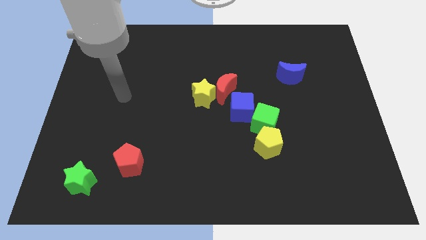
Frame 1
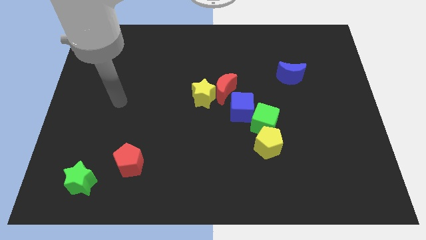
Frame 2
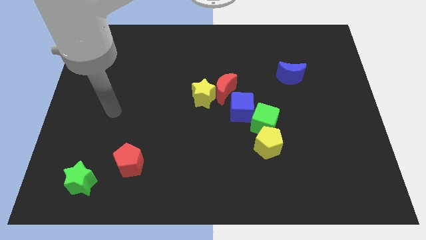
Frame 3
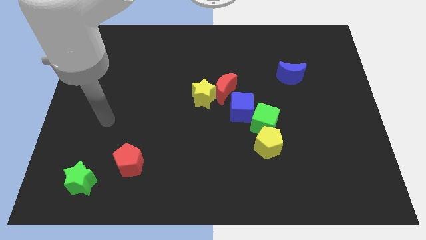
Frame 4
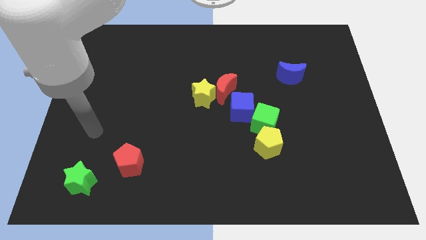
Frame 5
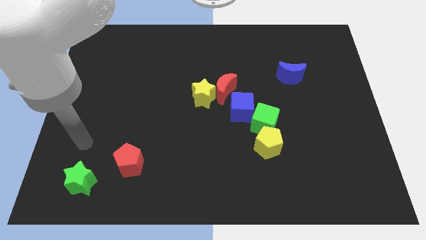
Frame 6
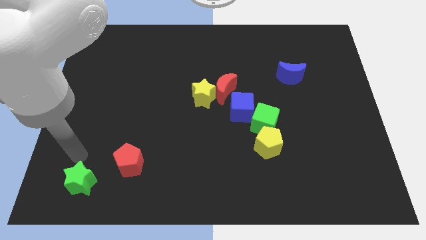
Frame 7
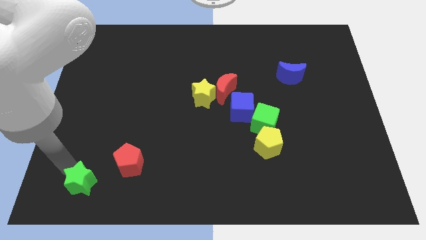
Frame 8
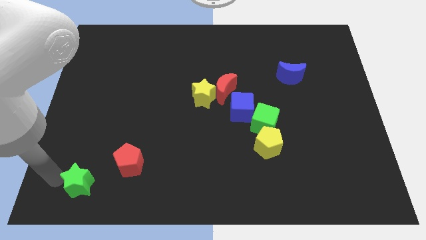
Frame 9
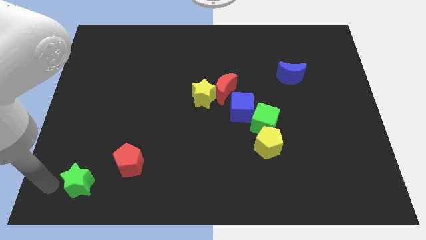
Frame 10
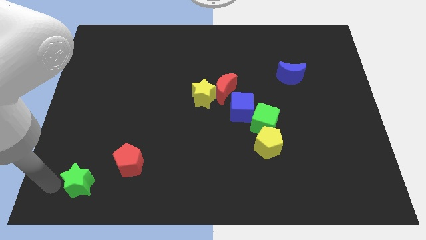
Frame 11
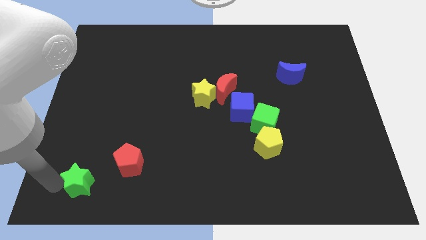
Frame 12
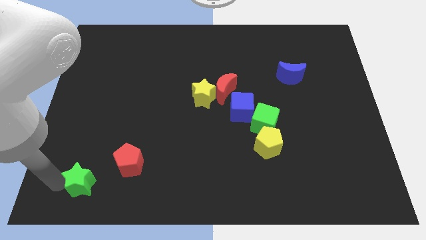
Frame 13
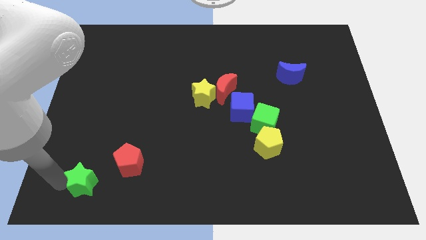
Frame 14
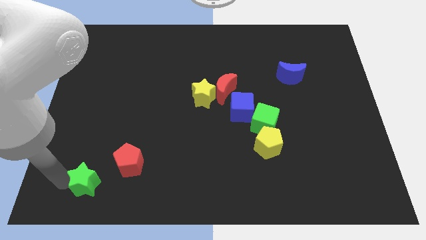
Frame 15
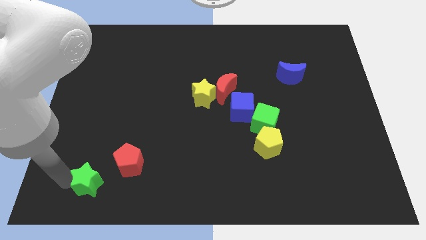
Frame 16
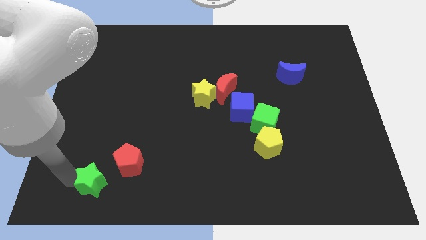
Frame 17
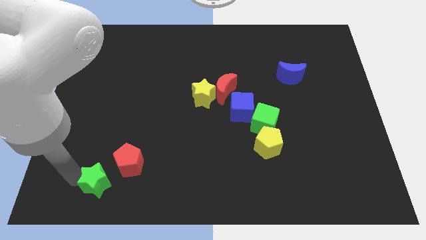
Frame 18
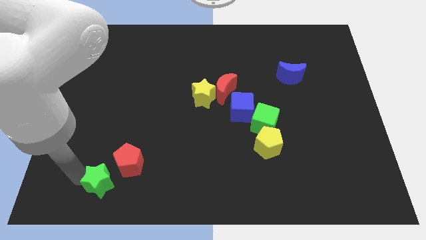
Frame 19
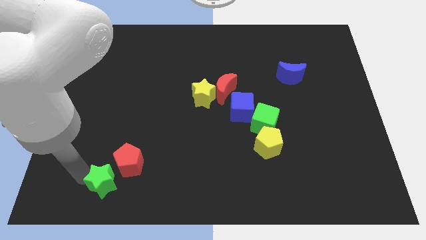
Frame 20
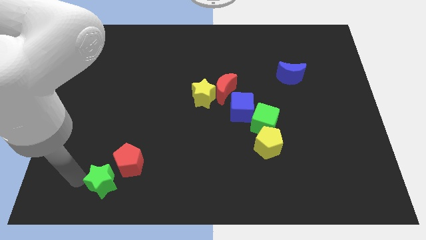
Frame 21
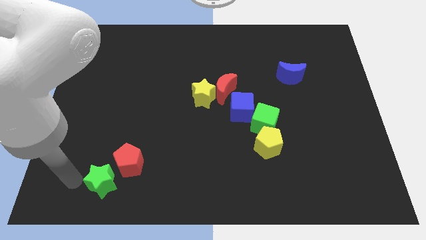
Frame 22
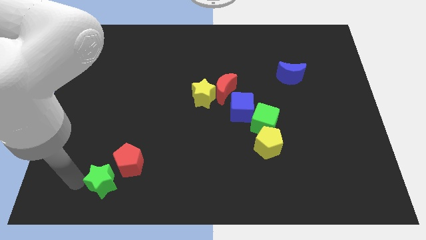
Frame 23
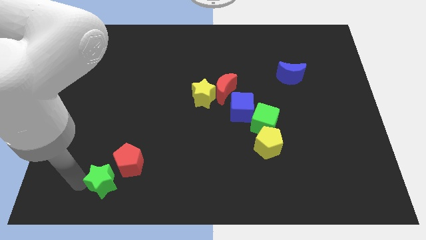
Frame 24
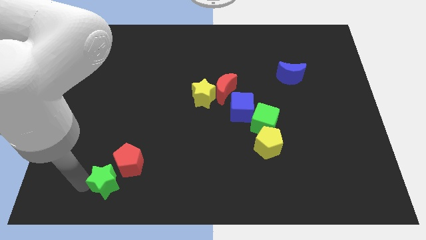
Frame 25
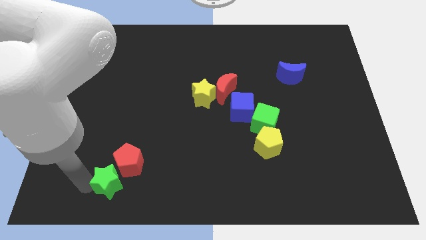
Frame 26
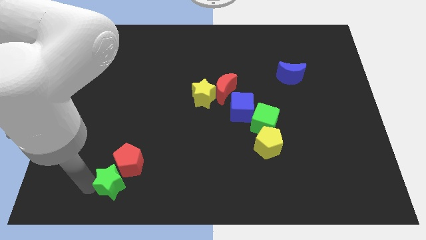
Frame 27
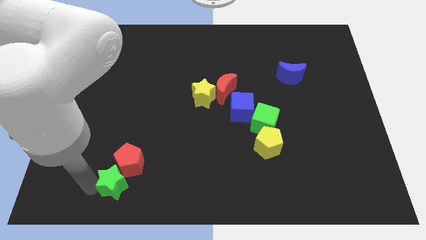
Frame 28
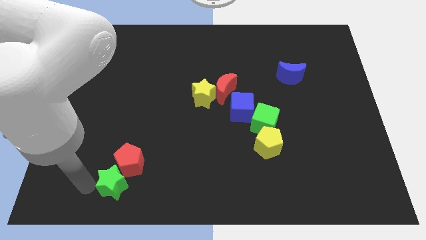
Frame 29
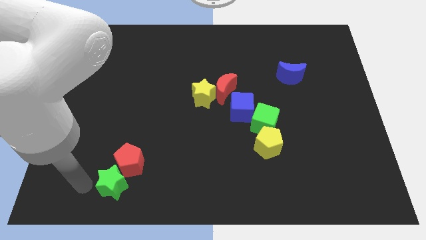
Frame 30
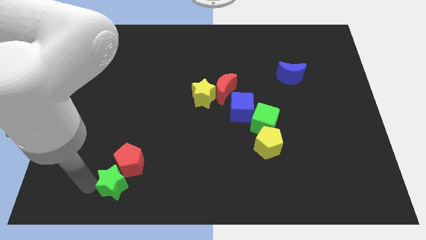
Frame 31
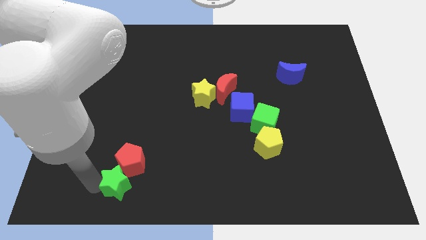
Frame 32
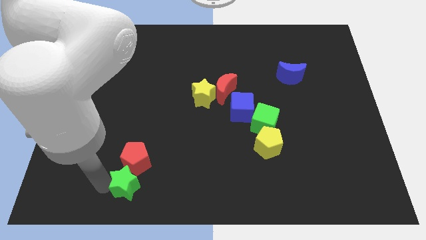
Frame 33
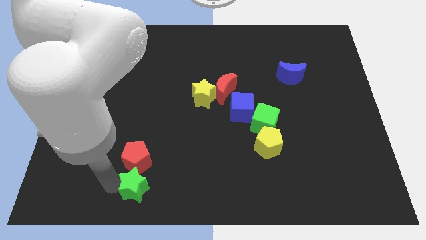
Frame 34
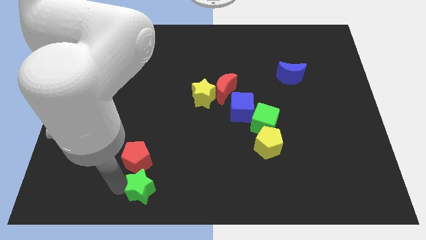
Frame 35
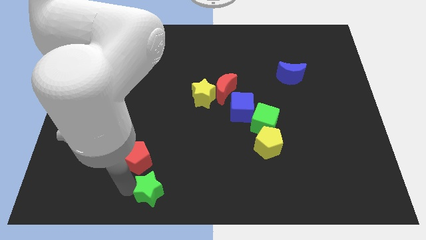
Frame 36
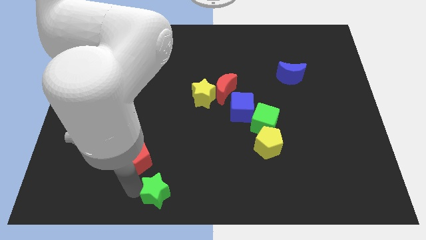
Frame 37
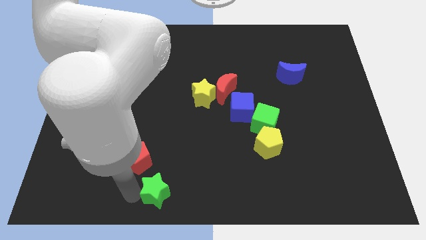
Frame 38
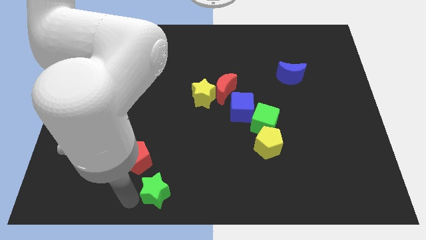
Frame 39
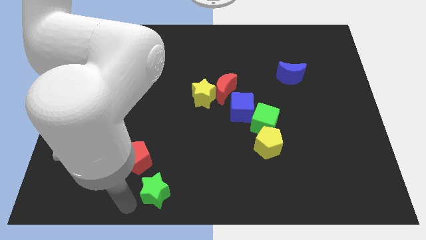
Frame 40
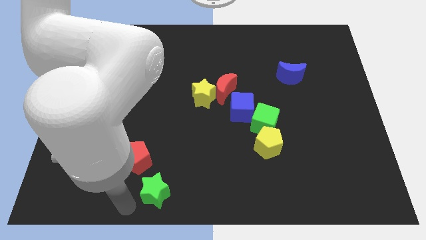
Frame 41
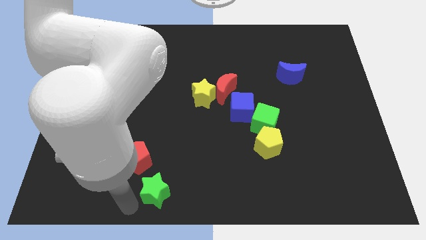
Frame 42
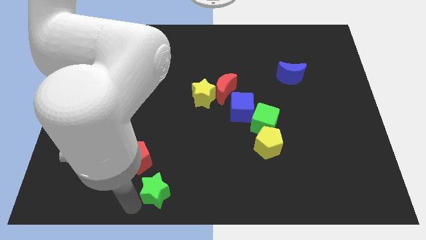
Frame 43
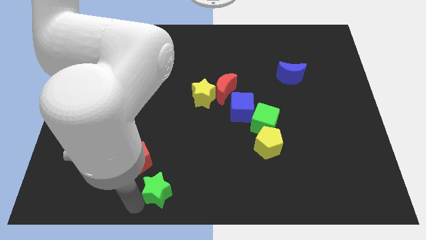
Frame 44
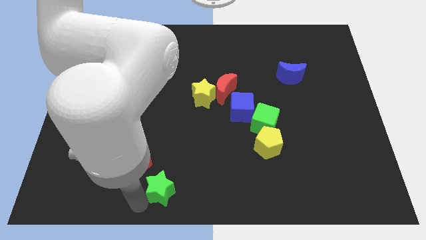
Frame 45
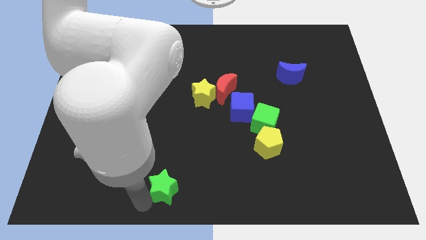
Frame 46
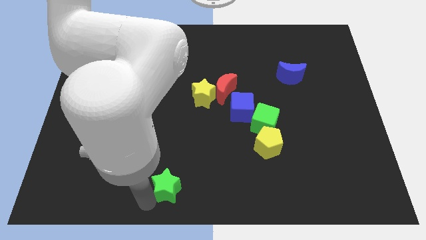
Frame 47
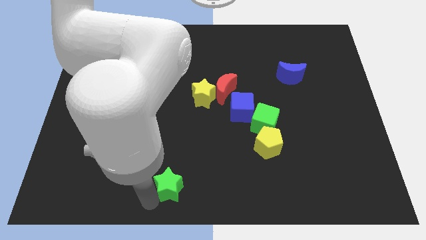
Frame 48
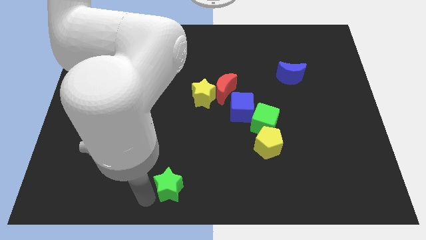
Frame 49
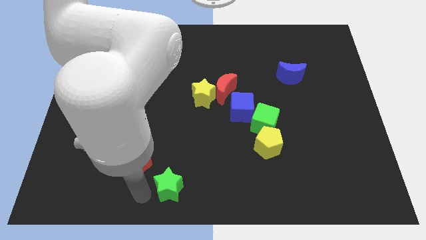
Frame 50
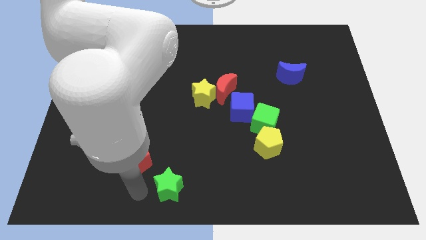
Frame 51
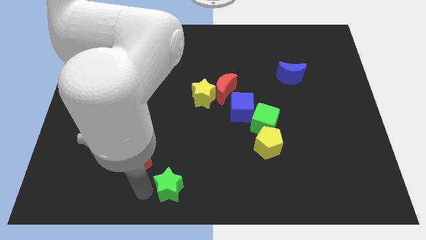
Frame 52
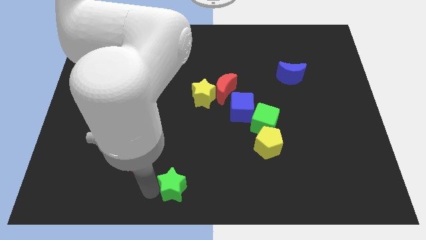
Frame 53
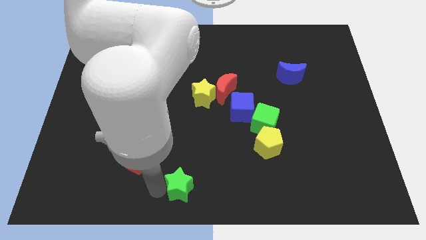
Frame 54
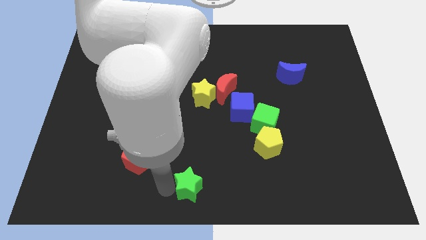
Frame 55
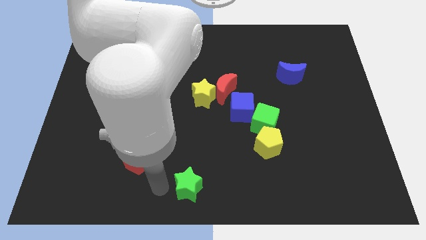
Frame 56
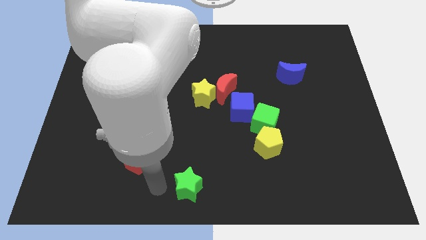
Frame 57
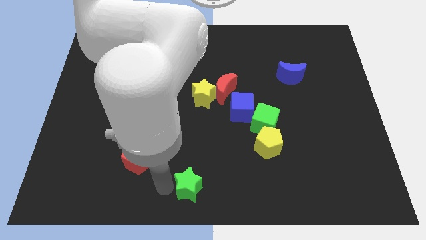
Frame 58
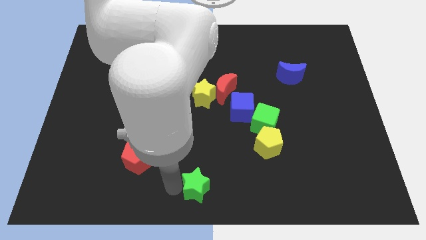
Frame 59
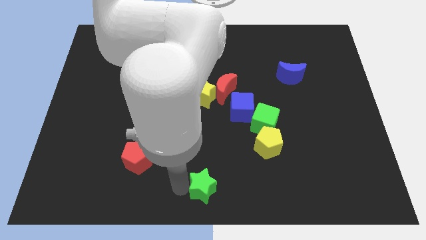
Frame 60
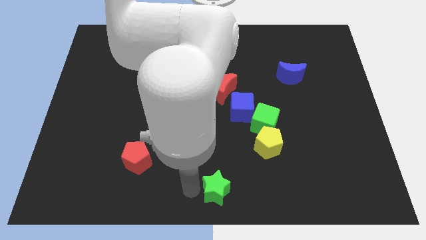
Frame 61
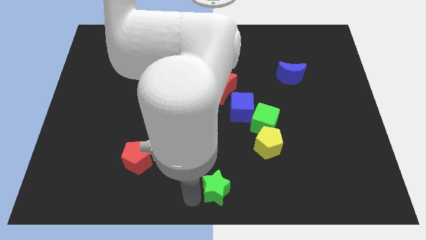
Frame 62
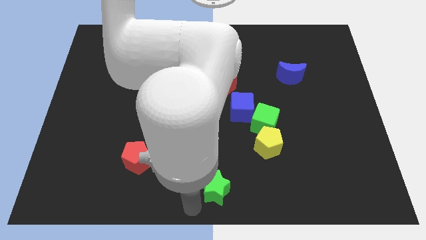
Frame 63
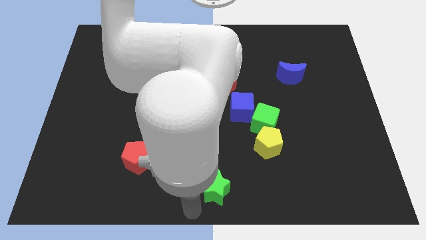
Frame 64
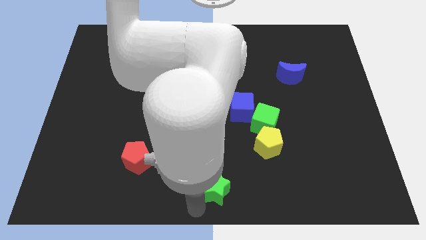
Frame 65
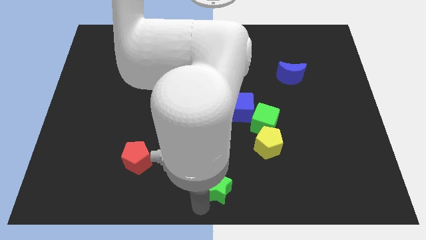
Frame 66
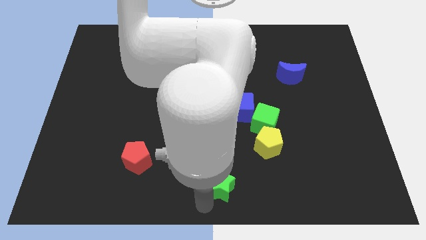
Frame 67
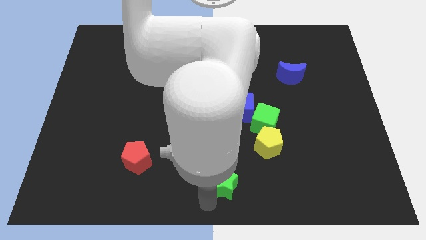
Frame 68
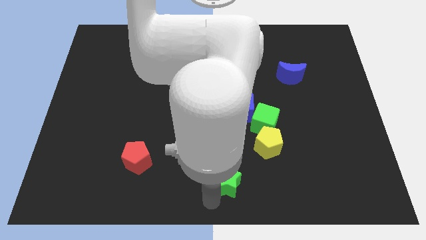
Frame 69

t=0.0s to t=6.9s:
slide the green star to the bottom left of the yellow pentagon

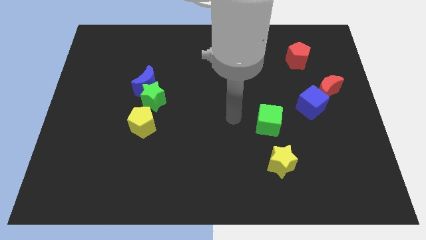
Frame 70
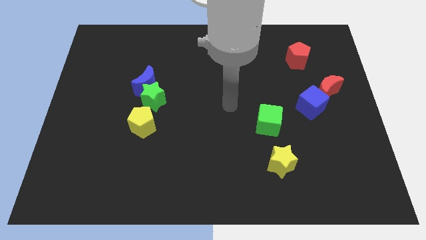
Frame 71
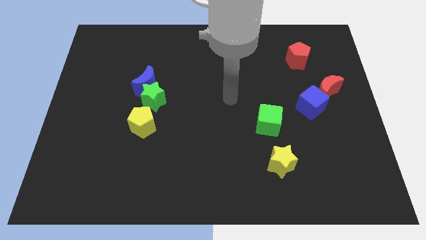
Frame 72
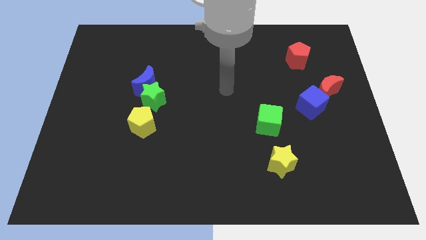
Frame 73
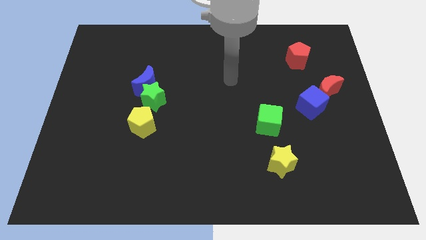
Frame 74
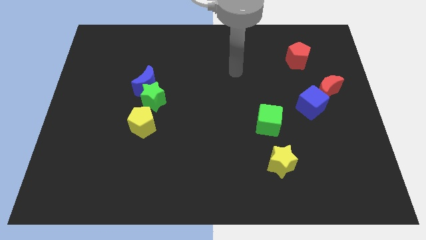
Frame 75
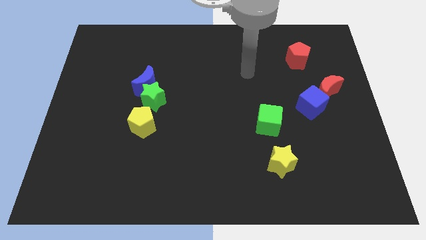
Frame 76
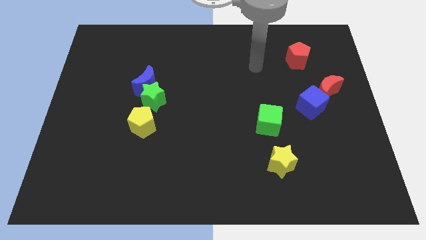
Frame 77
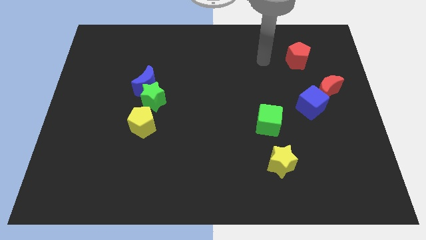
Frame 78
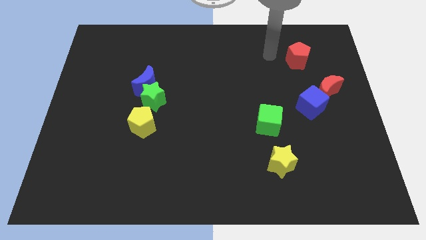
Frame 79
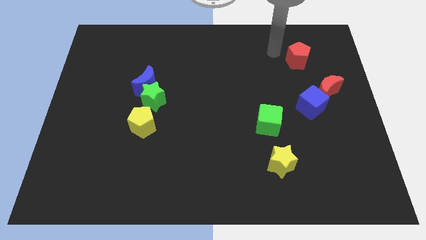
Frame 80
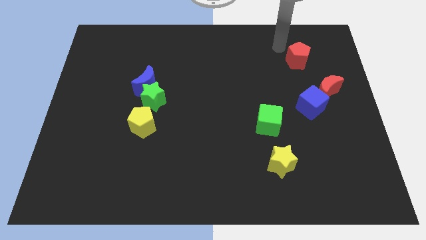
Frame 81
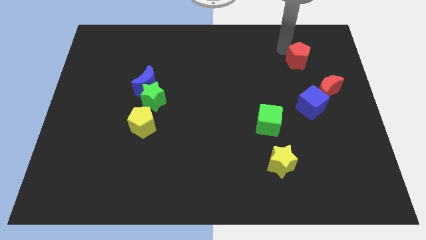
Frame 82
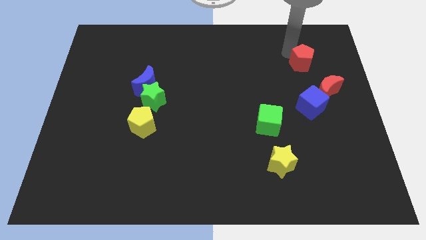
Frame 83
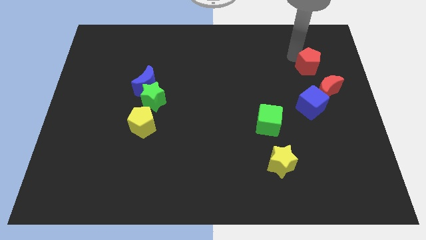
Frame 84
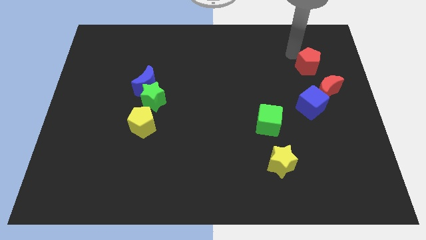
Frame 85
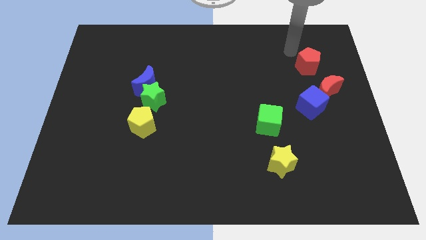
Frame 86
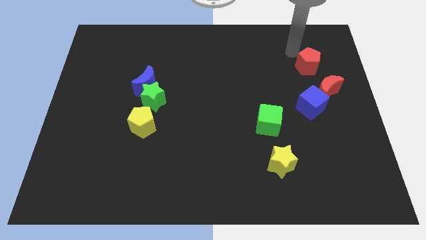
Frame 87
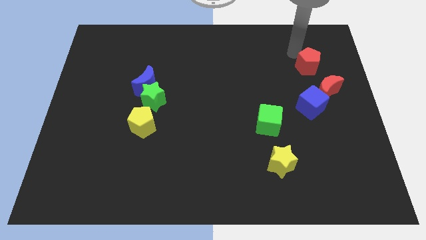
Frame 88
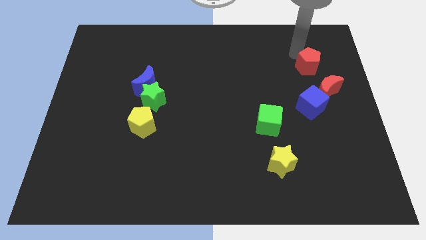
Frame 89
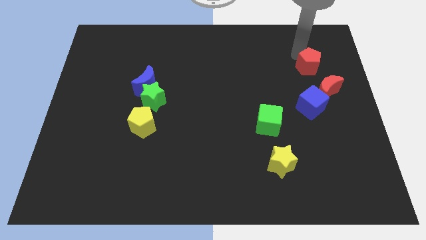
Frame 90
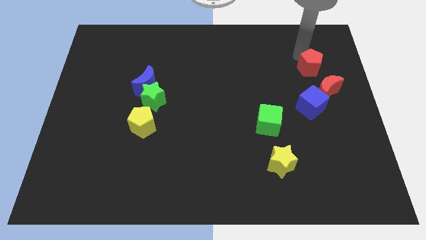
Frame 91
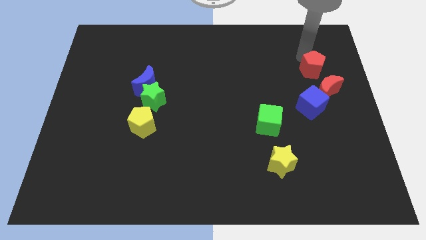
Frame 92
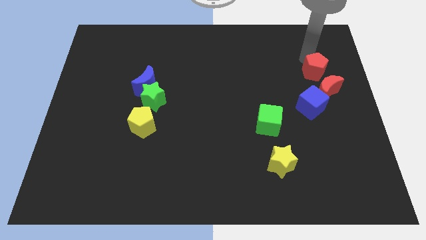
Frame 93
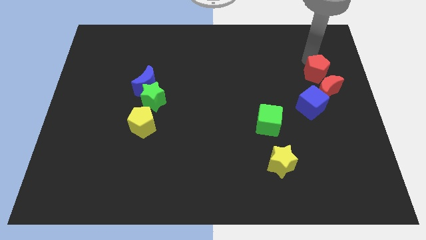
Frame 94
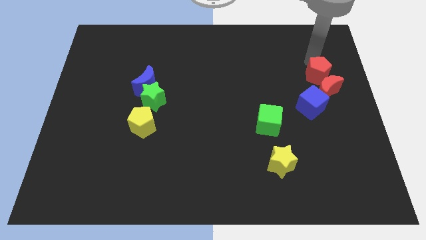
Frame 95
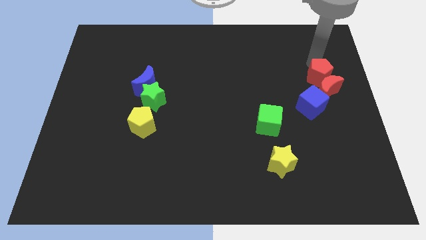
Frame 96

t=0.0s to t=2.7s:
push the red pentagon diagonally up and to the right of the blue cube
